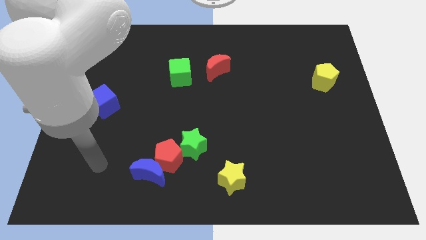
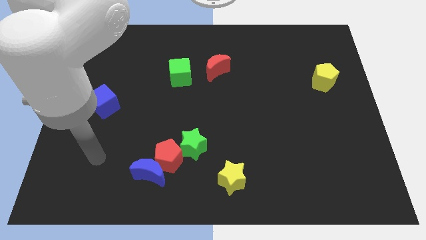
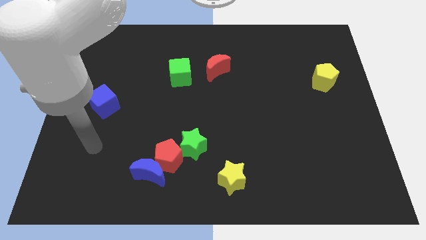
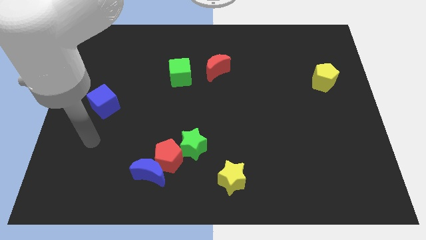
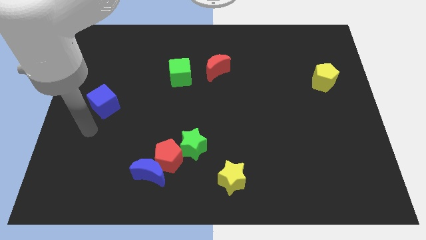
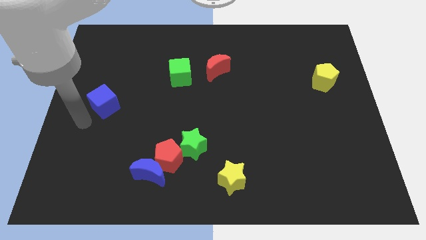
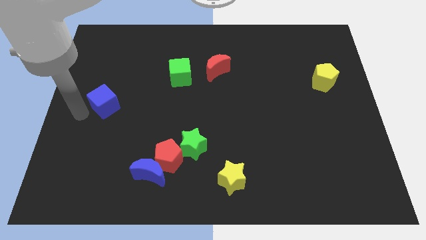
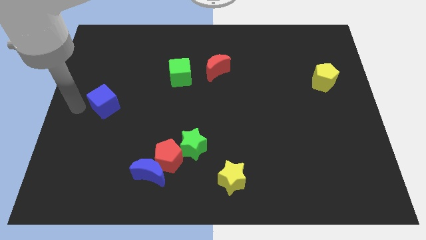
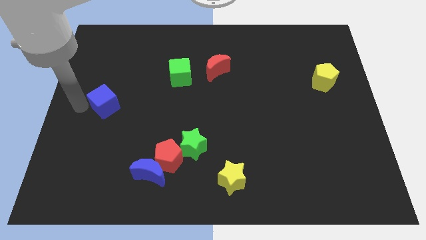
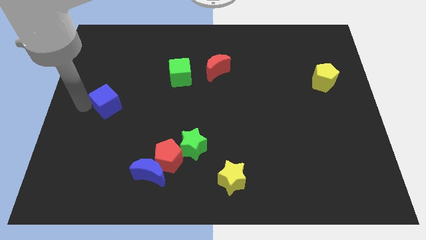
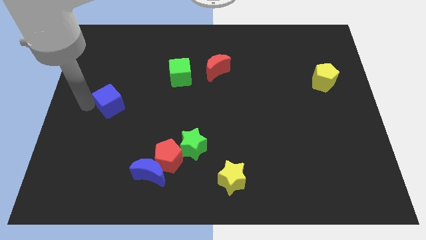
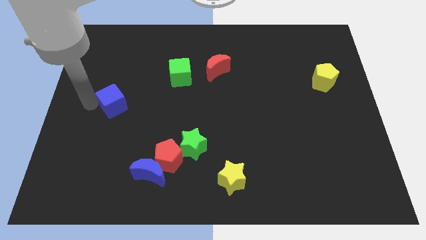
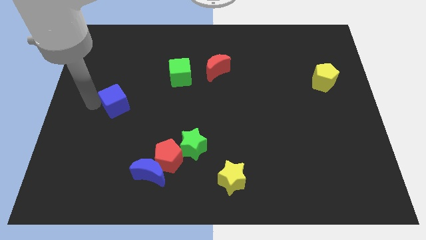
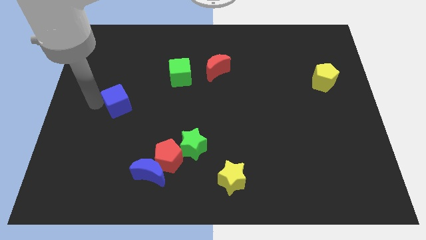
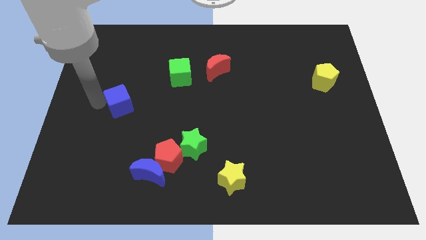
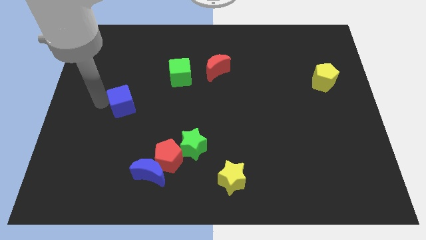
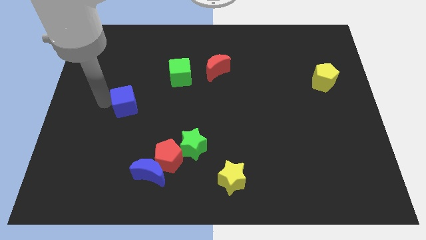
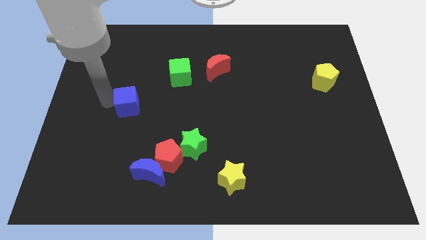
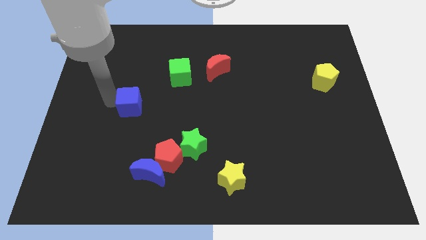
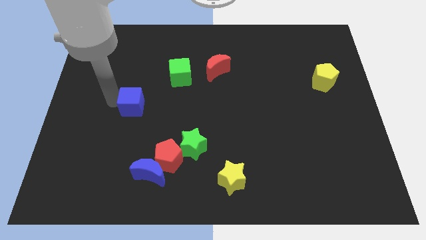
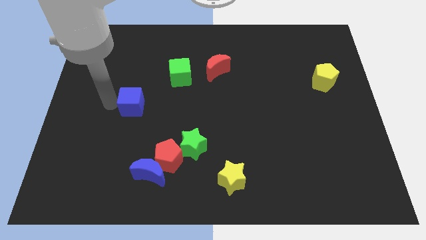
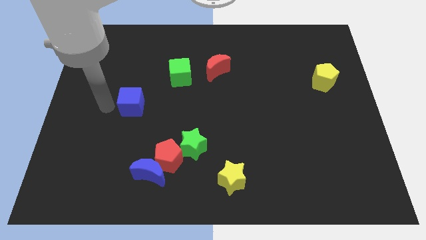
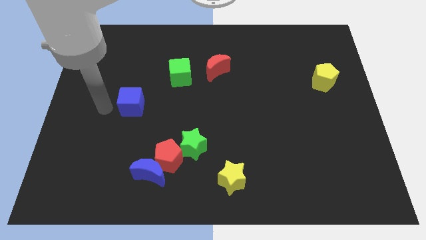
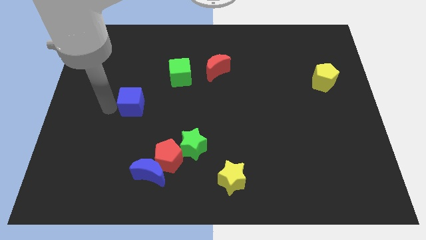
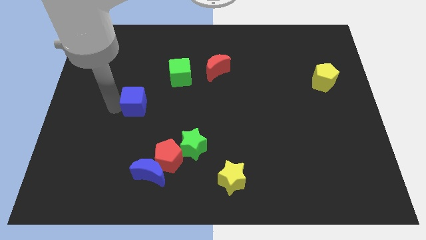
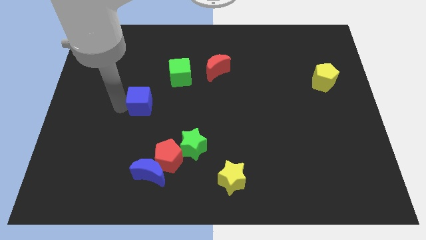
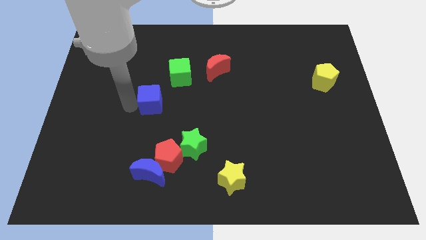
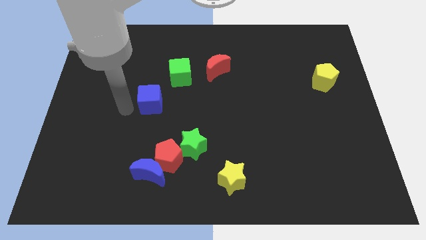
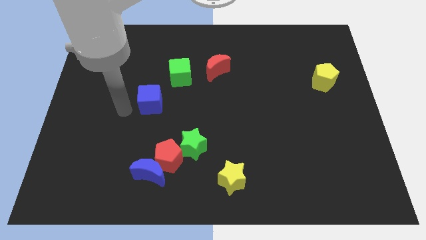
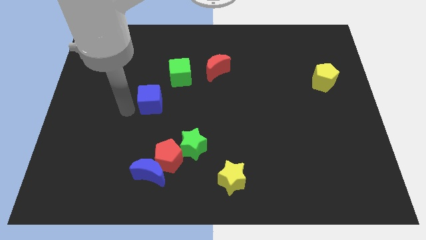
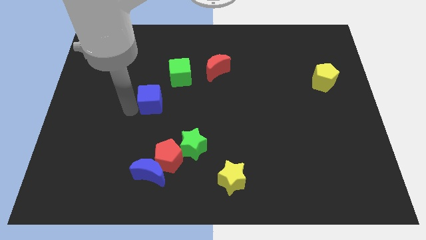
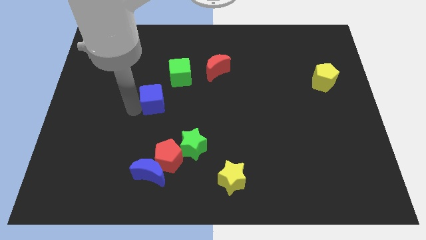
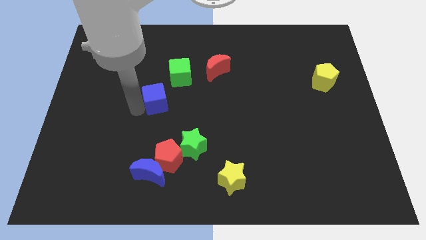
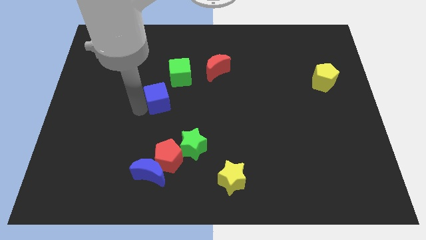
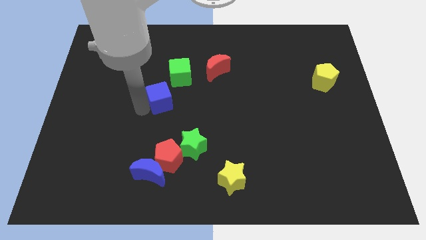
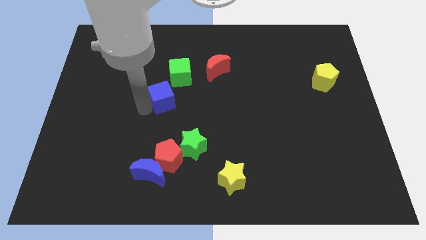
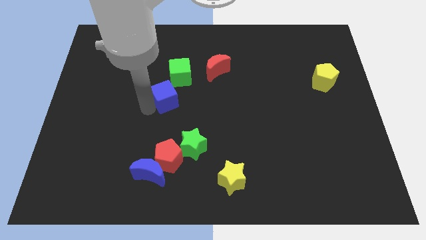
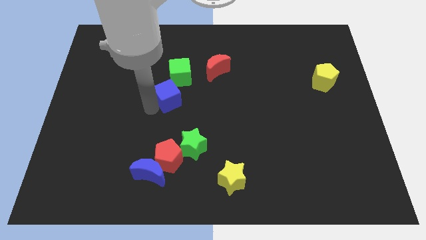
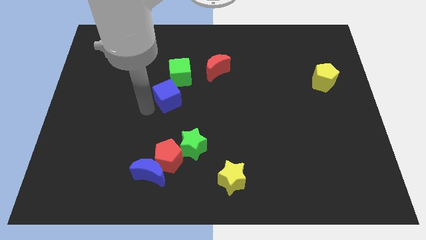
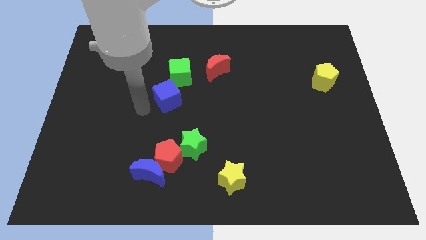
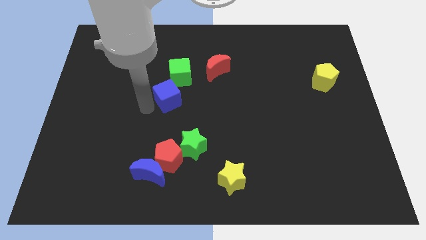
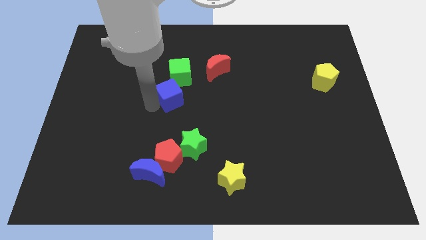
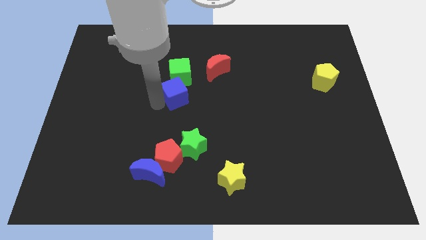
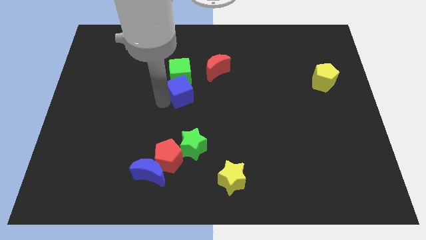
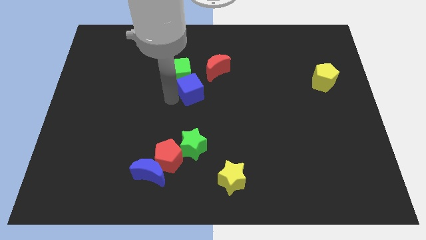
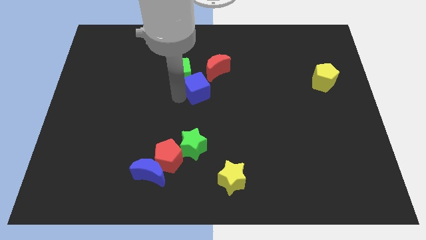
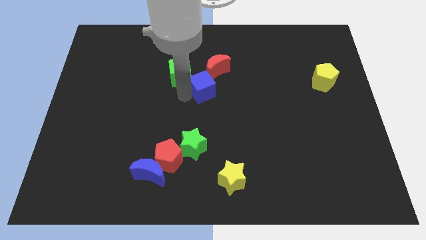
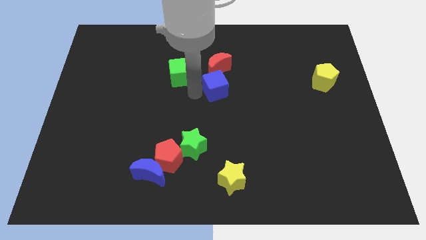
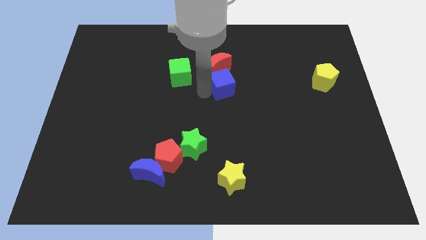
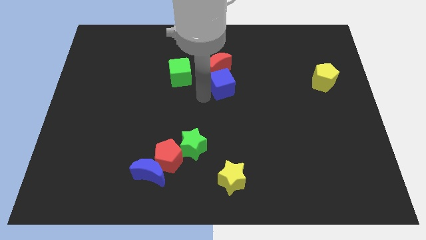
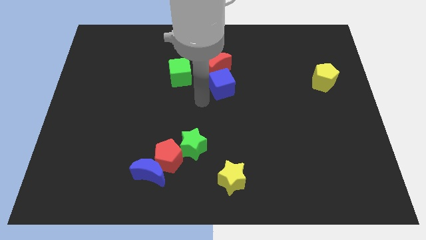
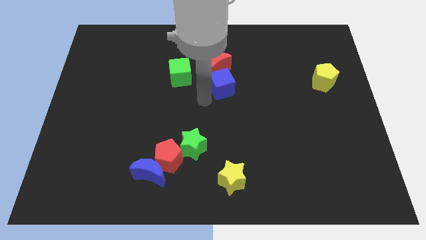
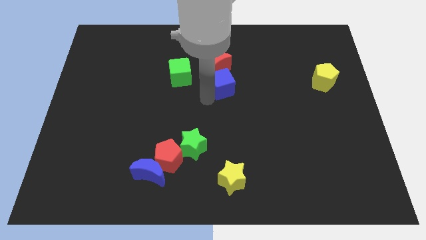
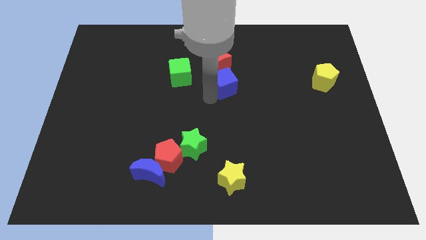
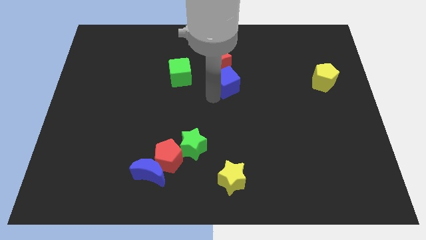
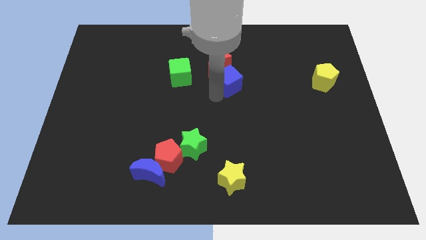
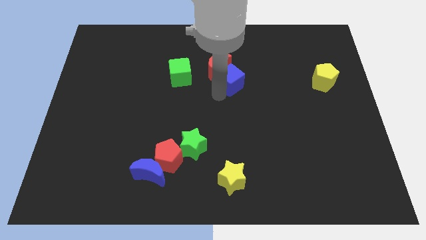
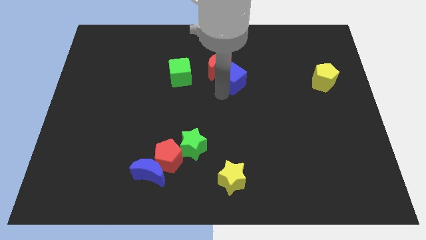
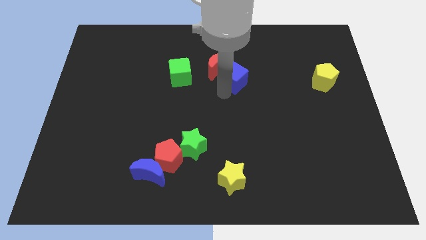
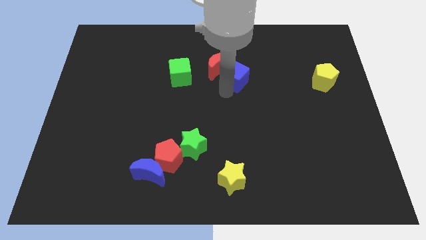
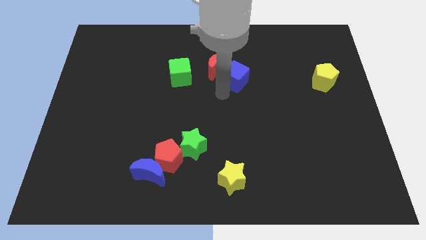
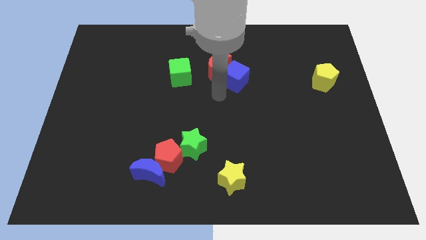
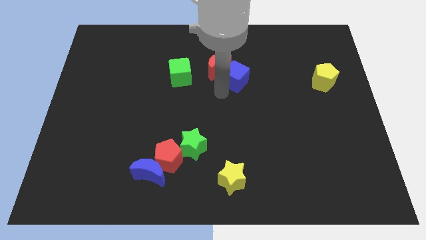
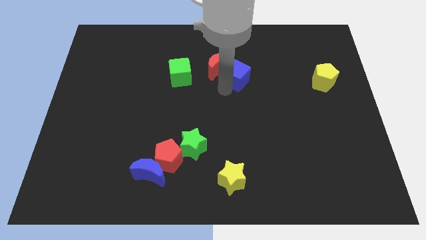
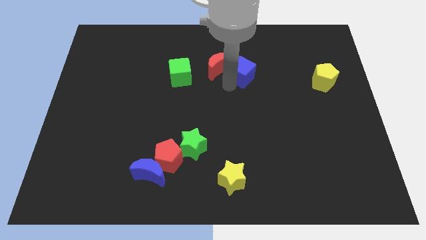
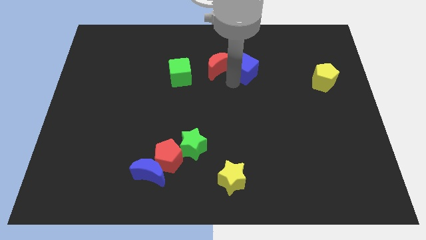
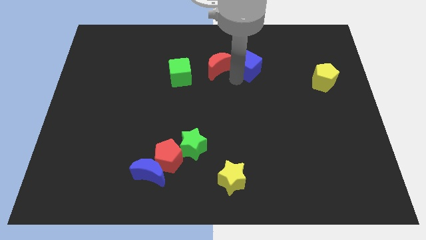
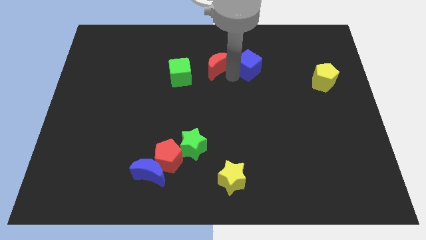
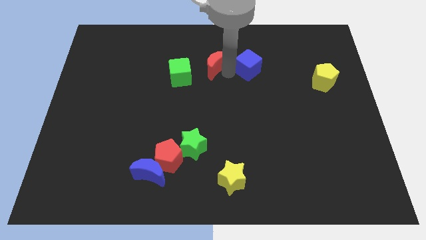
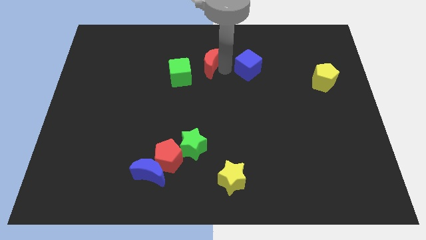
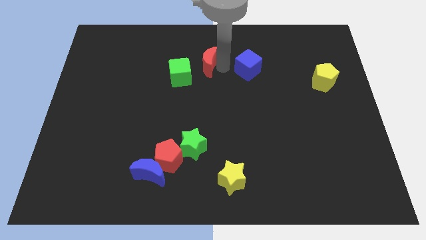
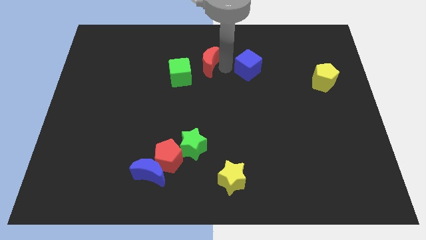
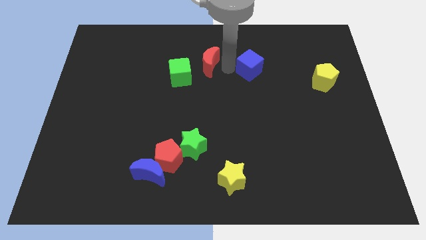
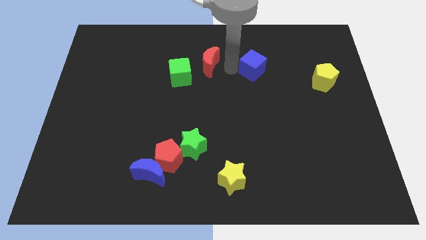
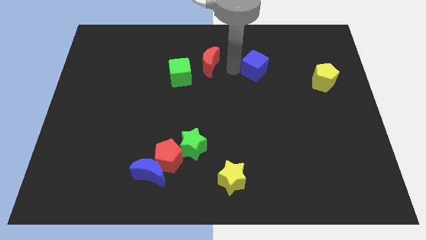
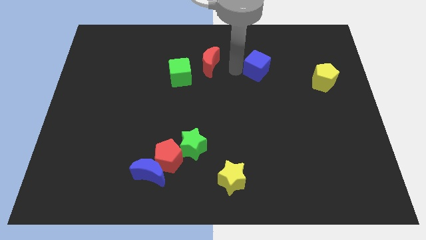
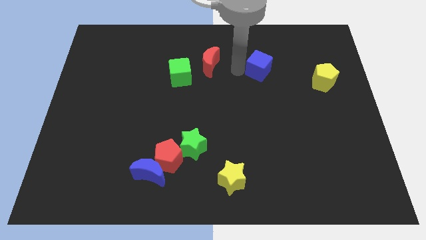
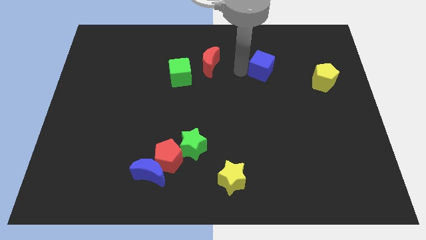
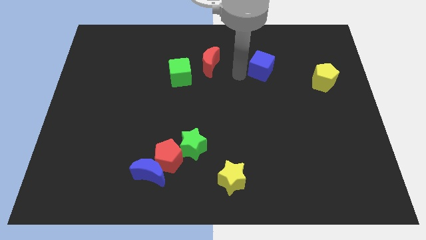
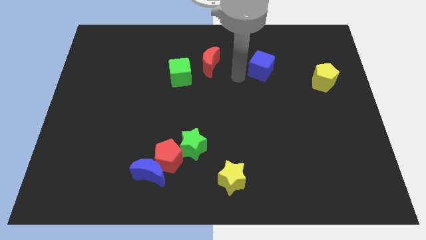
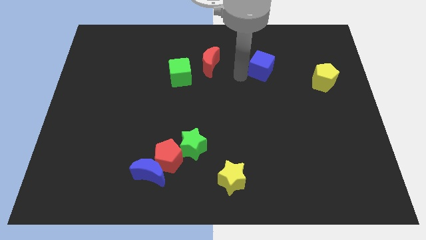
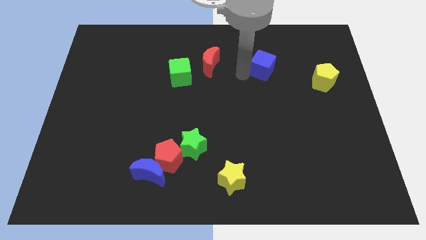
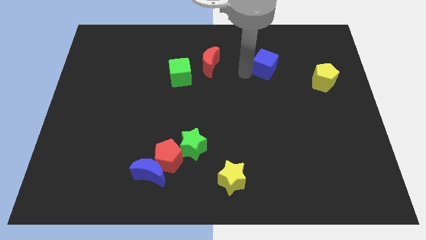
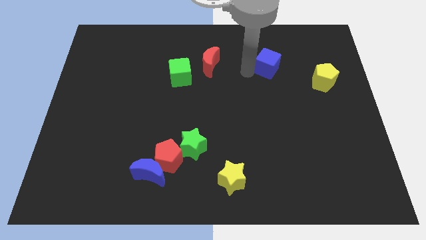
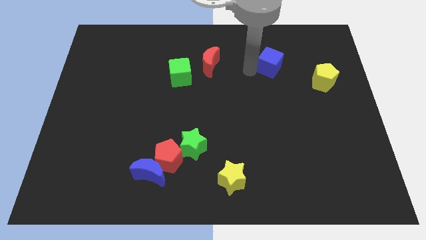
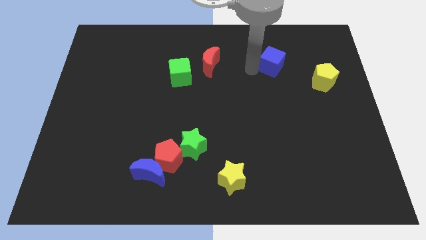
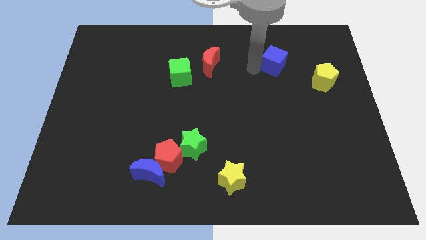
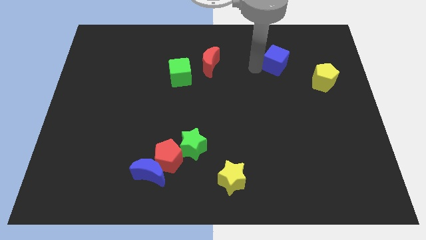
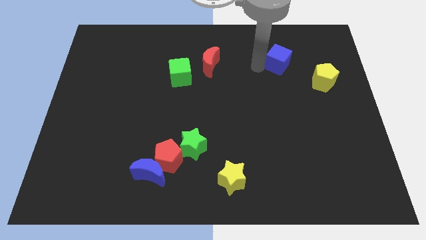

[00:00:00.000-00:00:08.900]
push the blue cube to the top left of the yellow pentagon
